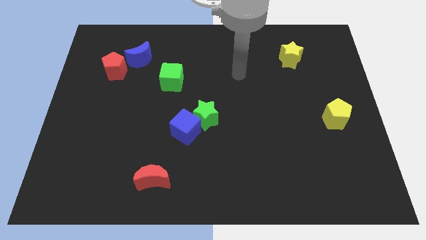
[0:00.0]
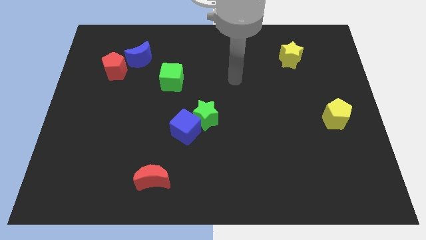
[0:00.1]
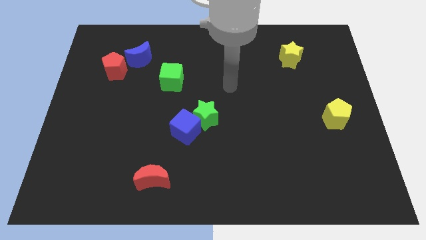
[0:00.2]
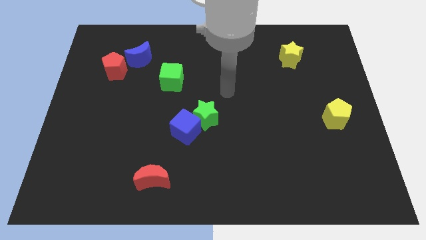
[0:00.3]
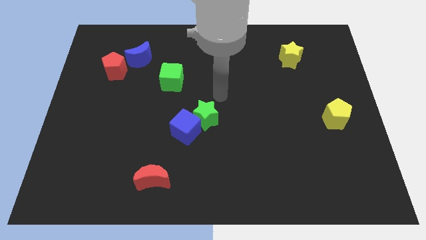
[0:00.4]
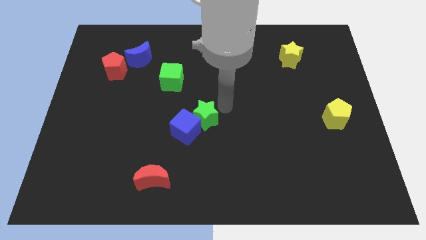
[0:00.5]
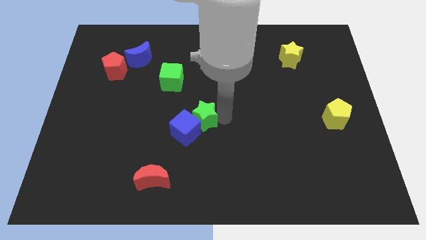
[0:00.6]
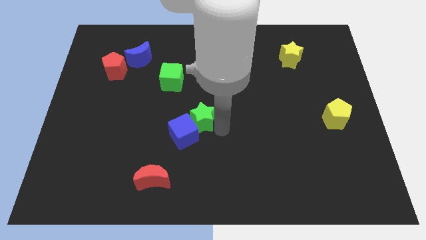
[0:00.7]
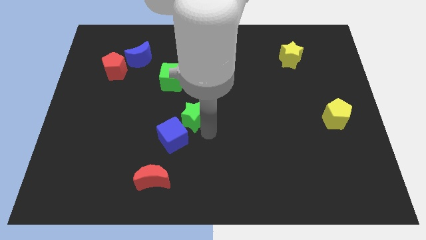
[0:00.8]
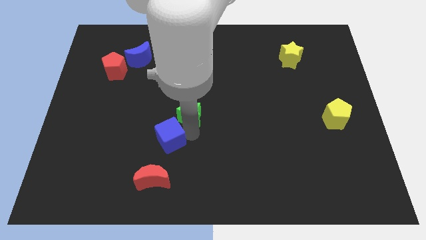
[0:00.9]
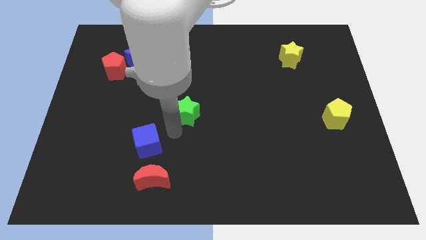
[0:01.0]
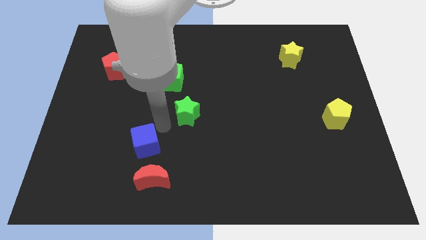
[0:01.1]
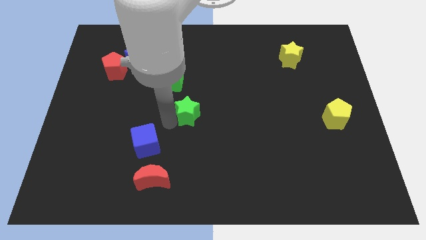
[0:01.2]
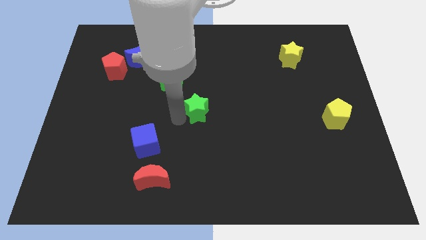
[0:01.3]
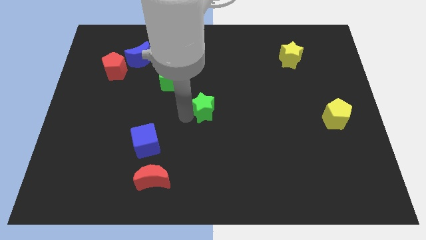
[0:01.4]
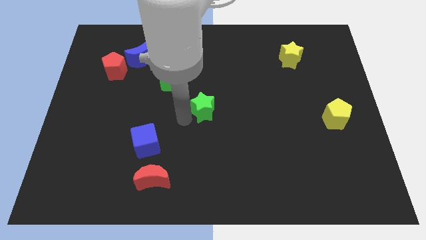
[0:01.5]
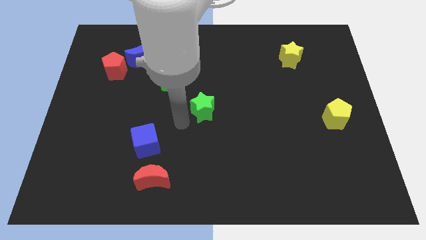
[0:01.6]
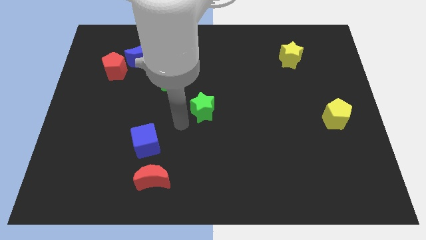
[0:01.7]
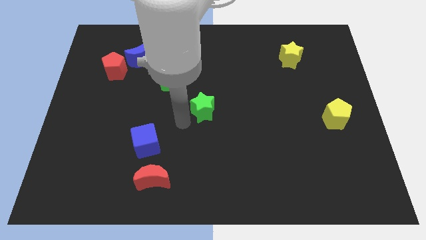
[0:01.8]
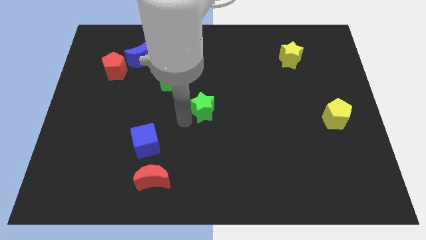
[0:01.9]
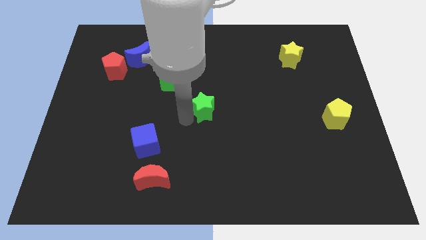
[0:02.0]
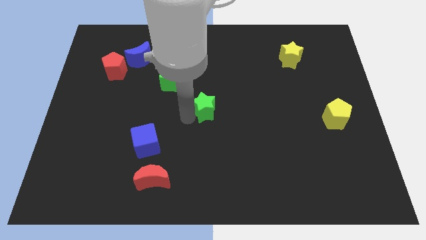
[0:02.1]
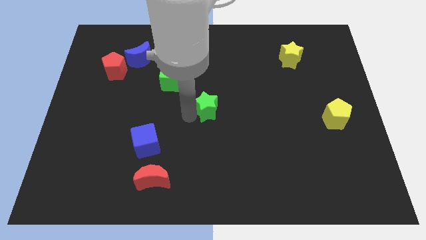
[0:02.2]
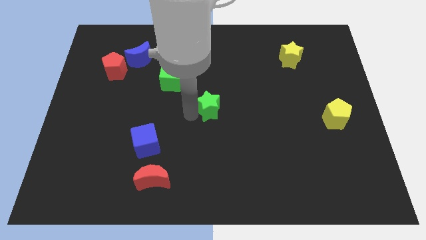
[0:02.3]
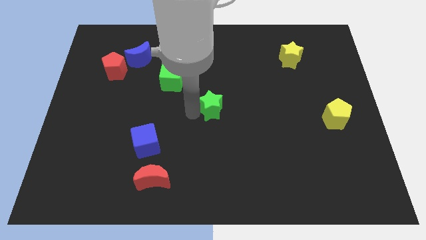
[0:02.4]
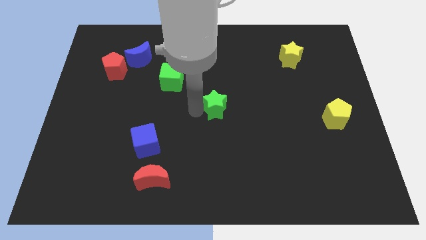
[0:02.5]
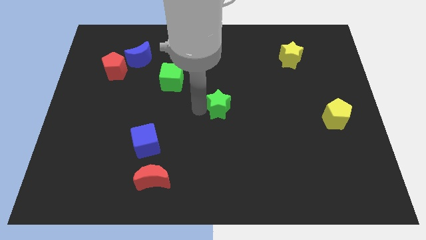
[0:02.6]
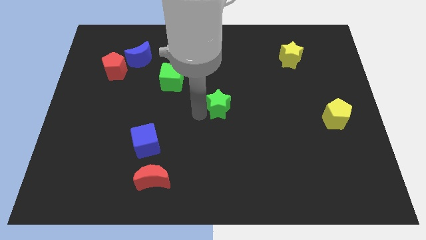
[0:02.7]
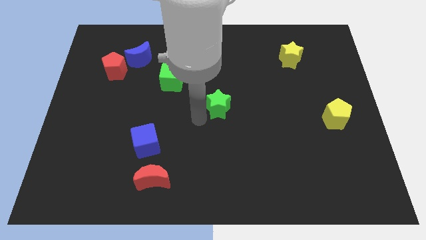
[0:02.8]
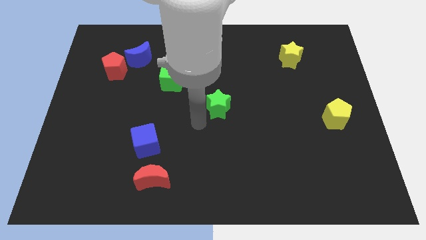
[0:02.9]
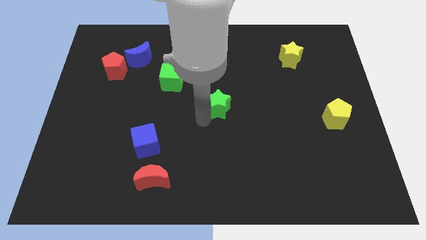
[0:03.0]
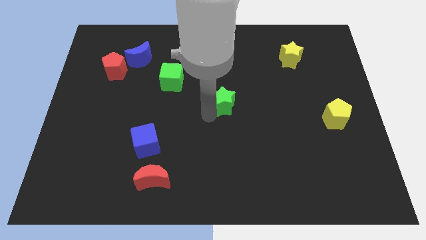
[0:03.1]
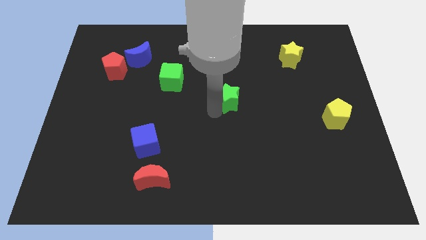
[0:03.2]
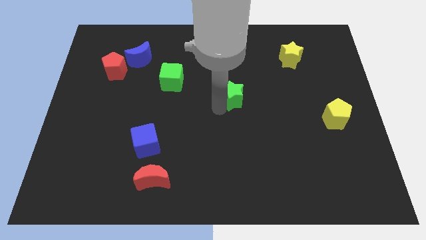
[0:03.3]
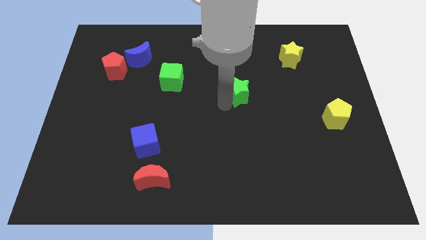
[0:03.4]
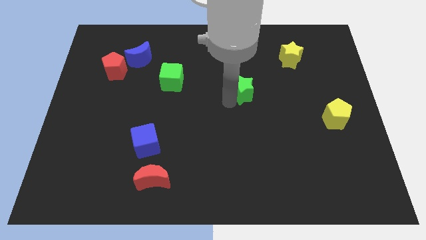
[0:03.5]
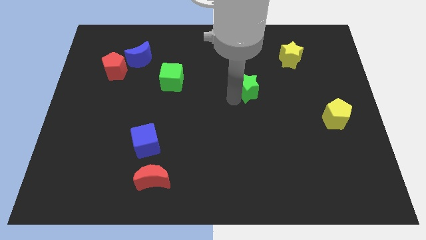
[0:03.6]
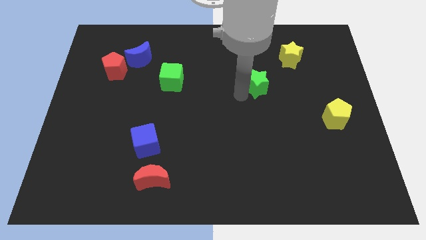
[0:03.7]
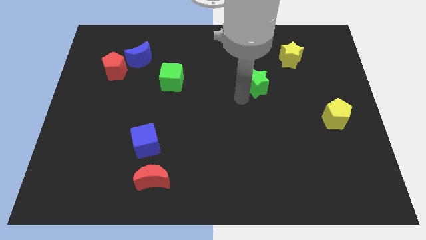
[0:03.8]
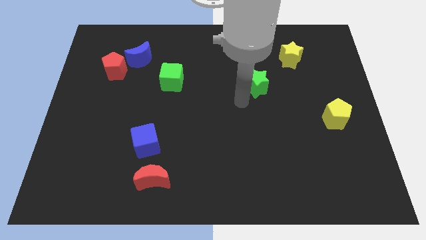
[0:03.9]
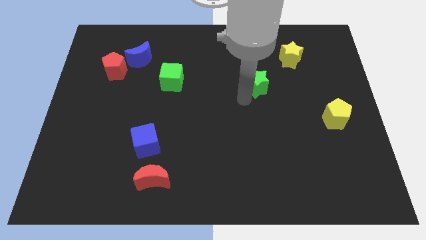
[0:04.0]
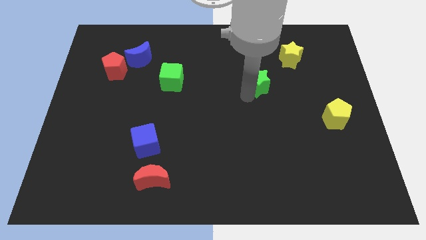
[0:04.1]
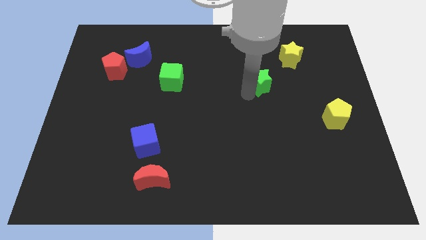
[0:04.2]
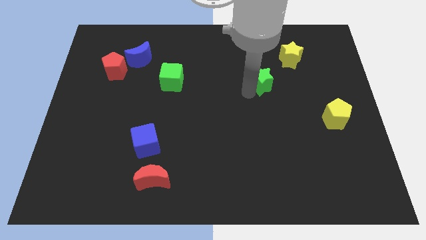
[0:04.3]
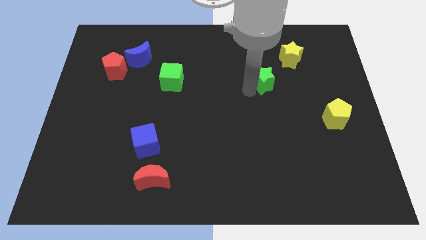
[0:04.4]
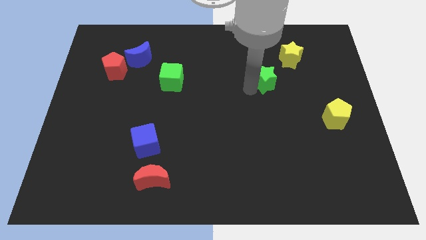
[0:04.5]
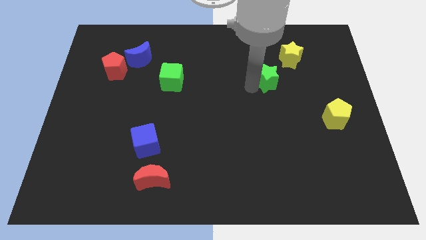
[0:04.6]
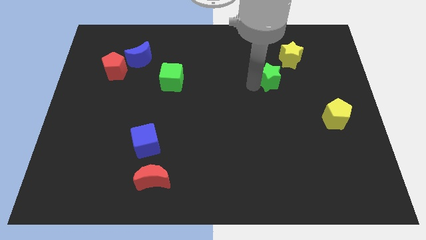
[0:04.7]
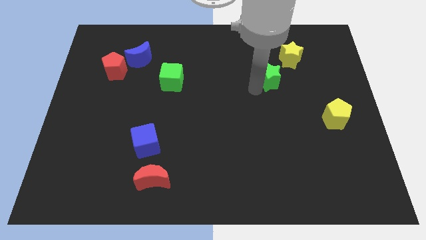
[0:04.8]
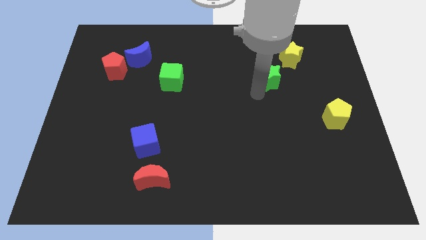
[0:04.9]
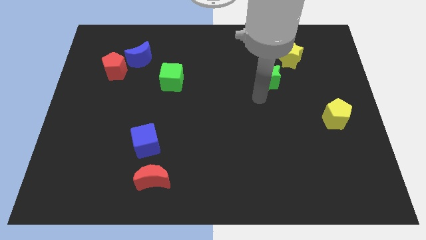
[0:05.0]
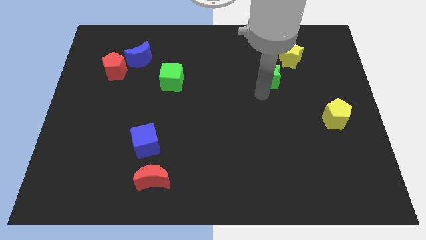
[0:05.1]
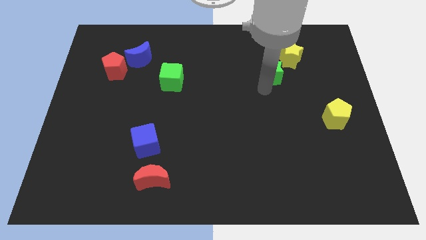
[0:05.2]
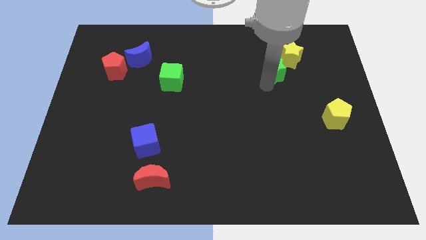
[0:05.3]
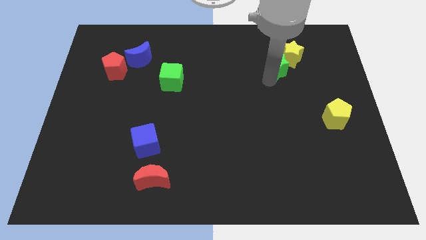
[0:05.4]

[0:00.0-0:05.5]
push the green star towards the yellow star

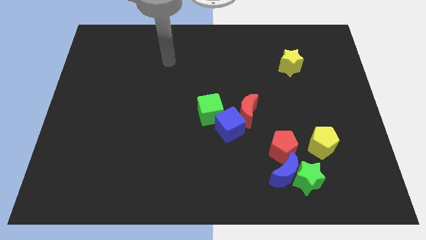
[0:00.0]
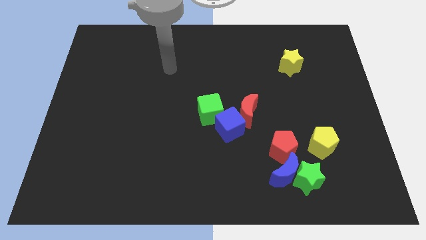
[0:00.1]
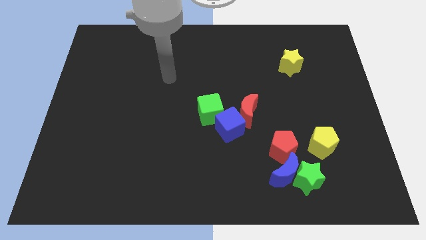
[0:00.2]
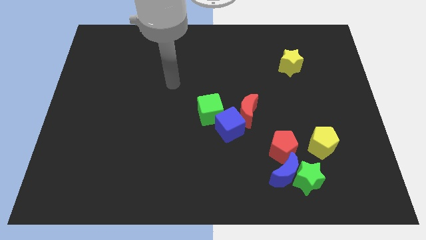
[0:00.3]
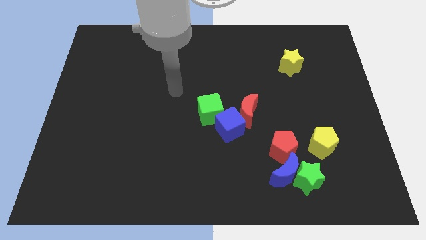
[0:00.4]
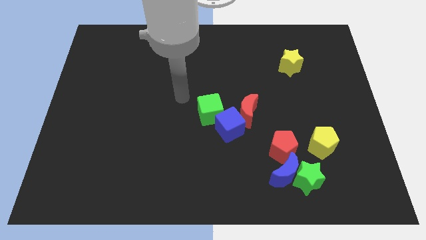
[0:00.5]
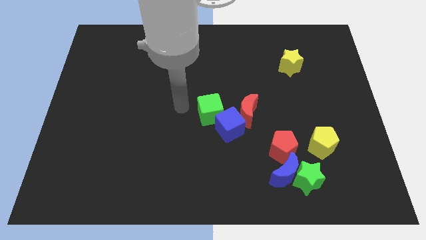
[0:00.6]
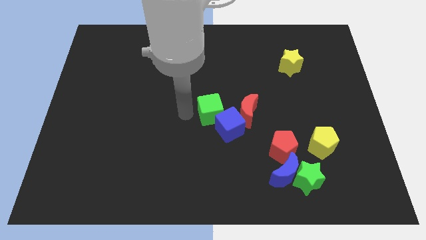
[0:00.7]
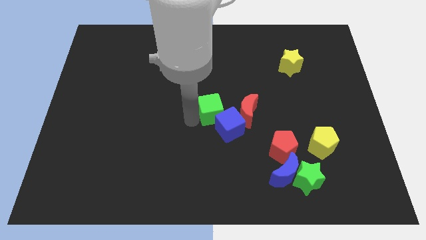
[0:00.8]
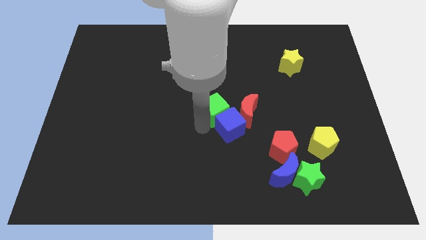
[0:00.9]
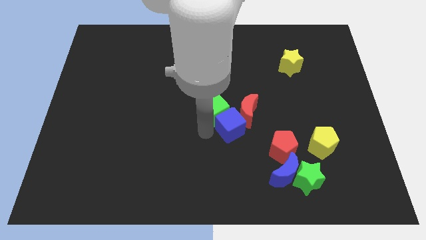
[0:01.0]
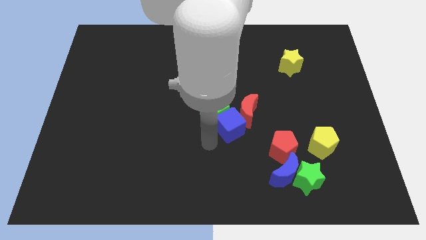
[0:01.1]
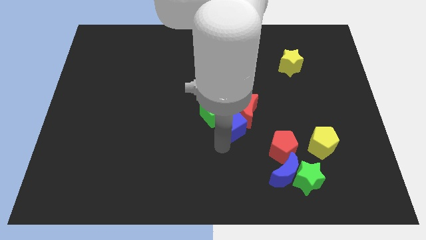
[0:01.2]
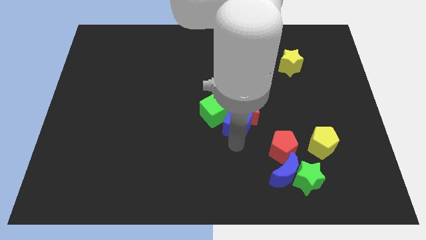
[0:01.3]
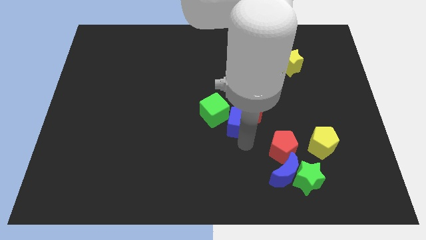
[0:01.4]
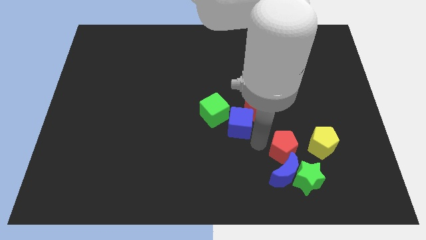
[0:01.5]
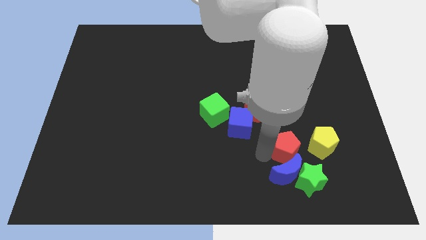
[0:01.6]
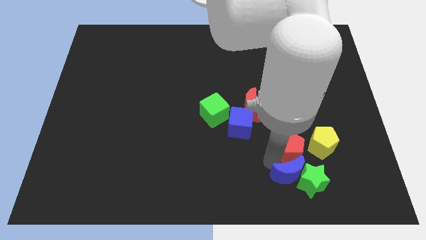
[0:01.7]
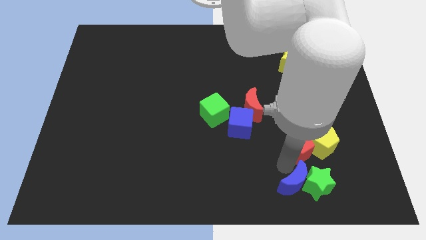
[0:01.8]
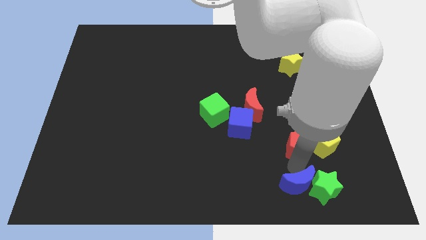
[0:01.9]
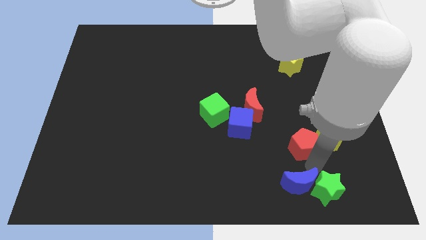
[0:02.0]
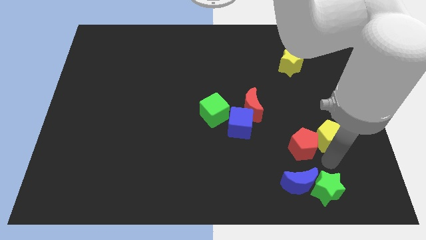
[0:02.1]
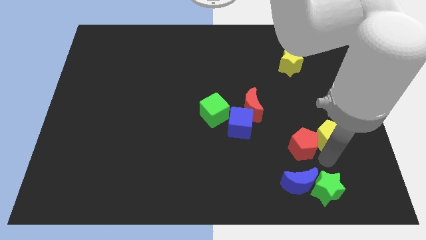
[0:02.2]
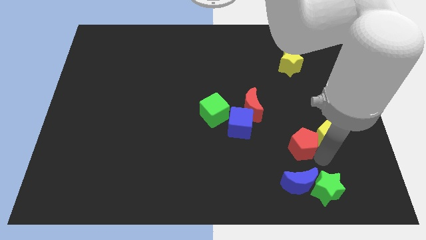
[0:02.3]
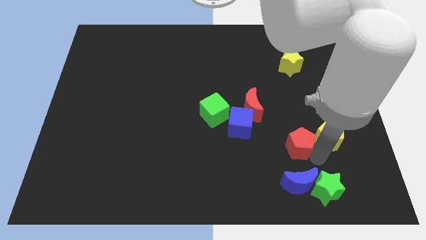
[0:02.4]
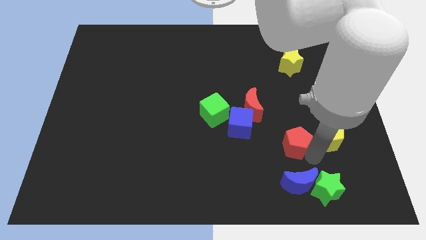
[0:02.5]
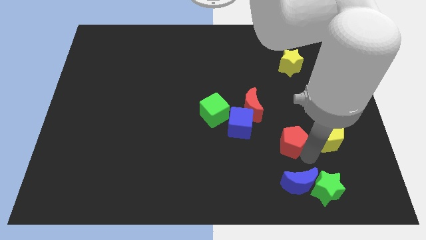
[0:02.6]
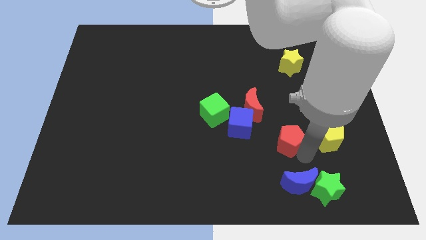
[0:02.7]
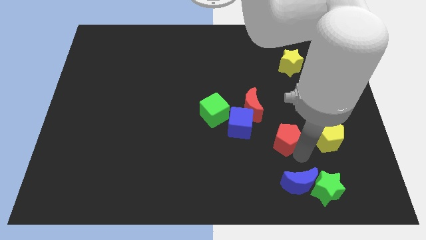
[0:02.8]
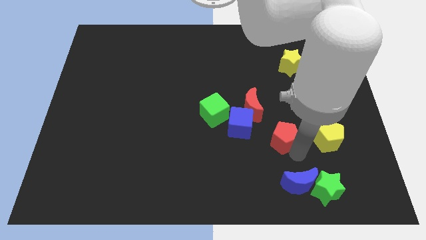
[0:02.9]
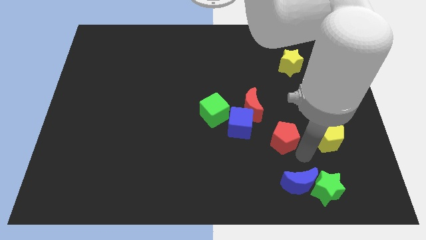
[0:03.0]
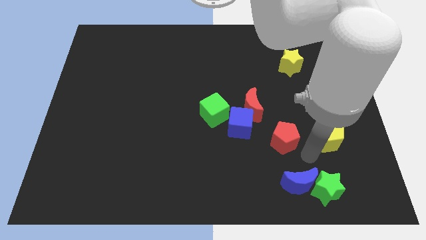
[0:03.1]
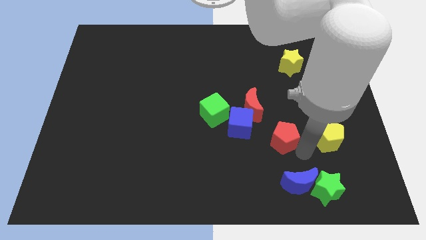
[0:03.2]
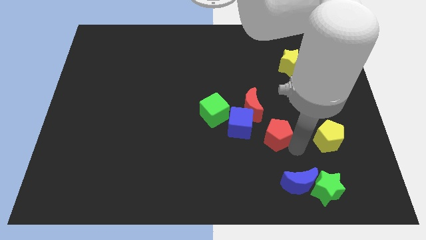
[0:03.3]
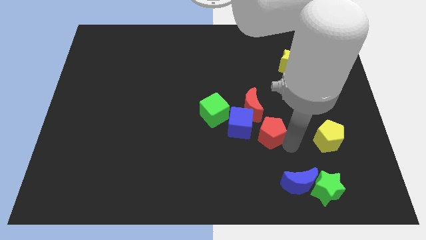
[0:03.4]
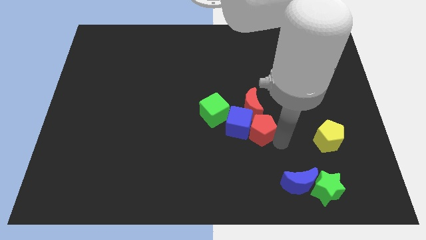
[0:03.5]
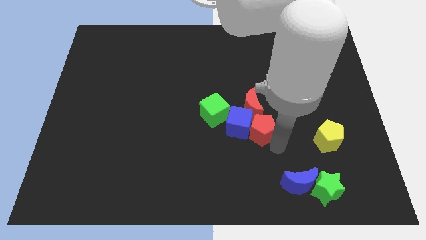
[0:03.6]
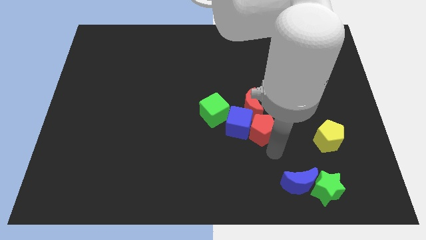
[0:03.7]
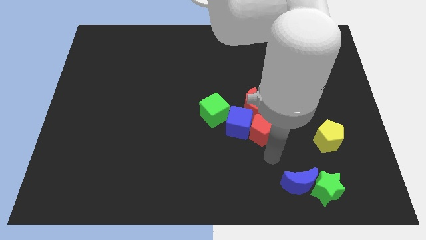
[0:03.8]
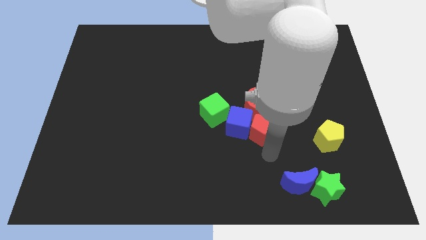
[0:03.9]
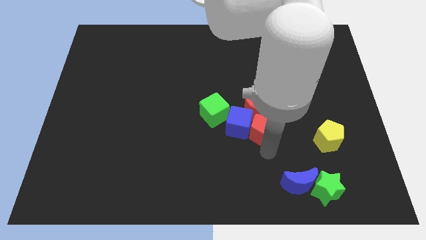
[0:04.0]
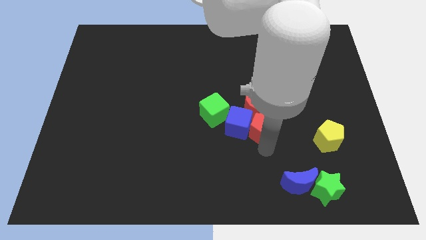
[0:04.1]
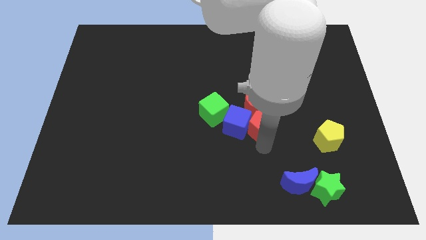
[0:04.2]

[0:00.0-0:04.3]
push the red pentagon to the red moon
